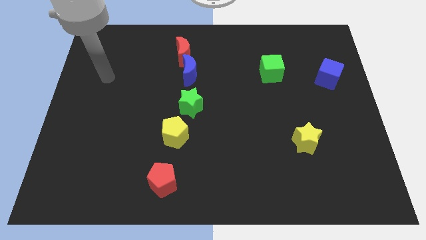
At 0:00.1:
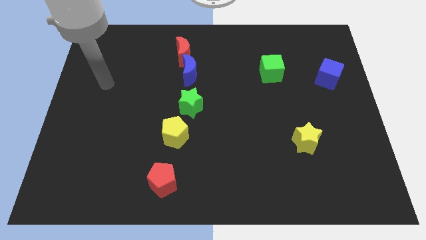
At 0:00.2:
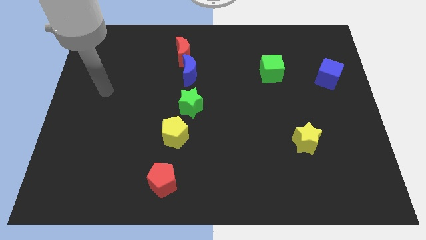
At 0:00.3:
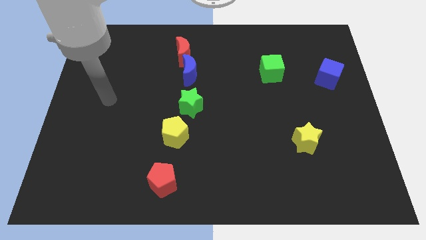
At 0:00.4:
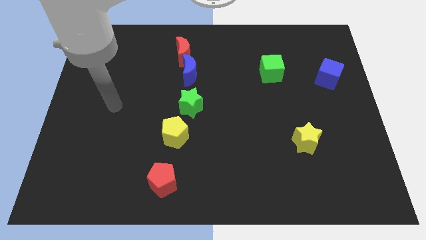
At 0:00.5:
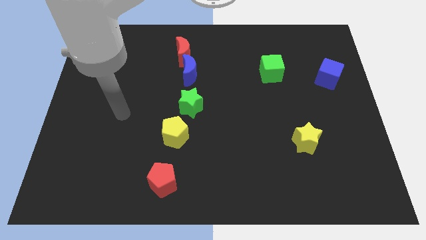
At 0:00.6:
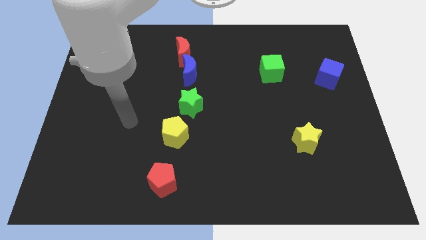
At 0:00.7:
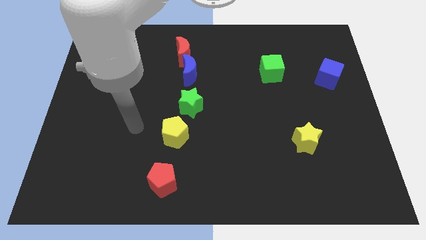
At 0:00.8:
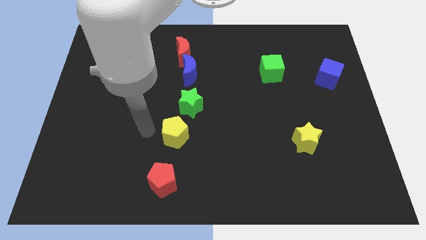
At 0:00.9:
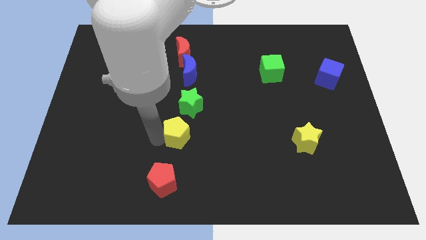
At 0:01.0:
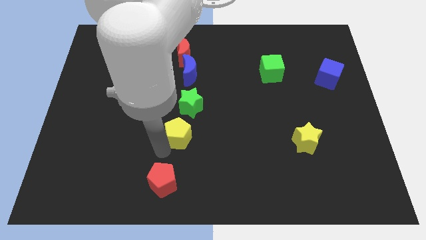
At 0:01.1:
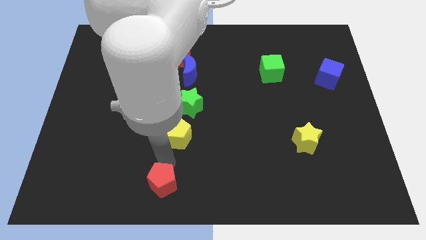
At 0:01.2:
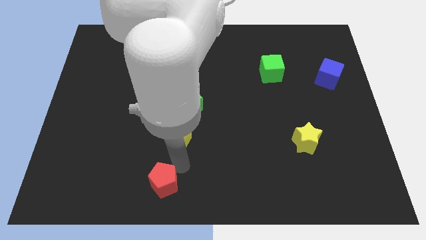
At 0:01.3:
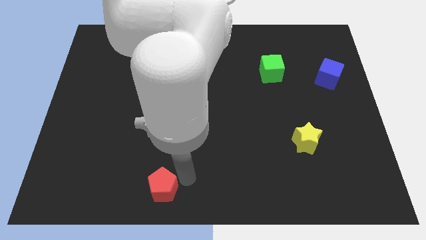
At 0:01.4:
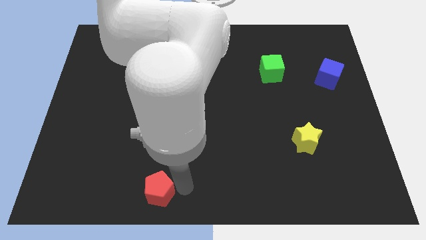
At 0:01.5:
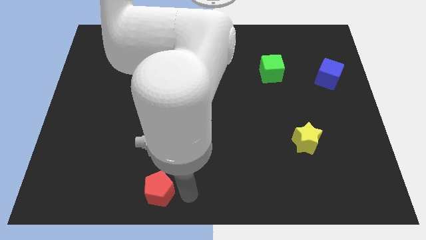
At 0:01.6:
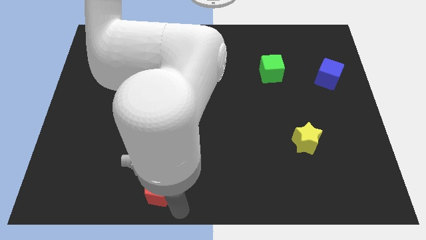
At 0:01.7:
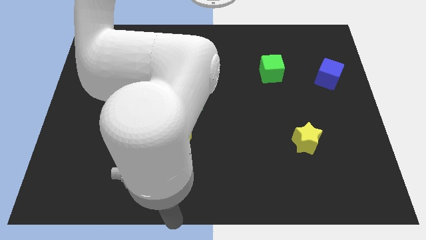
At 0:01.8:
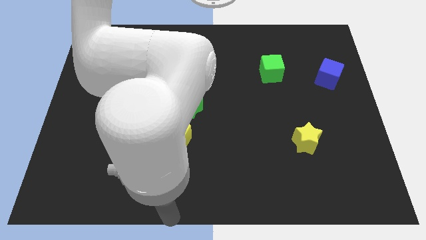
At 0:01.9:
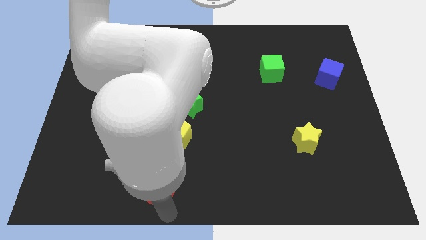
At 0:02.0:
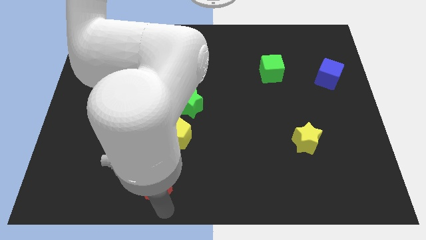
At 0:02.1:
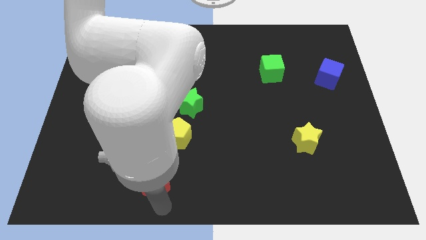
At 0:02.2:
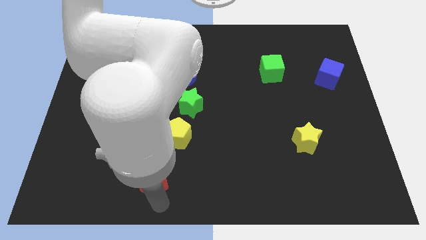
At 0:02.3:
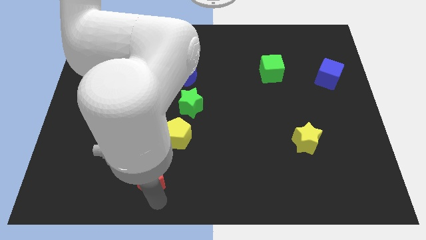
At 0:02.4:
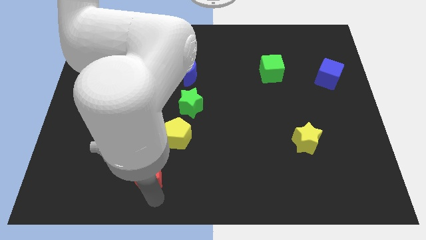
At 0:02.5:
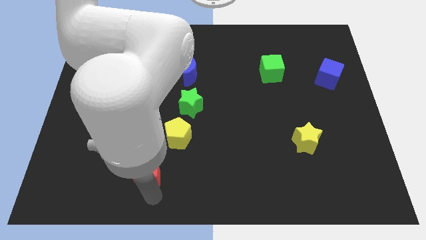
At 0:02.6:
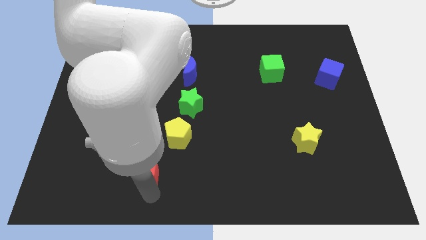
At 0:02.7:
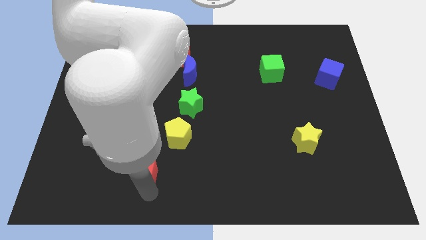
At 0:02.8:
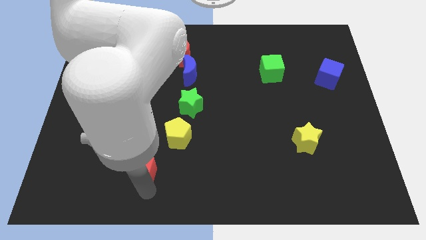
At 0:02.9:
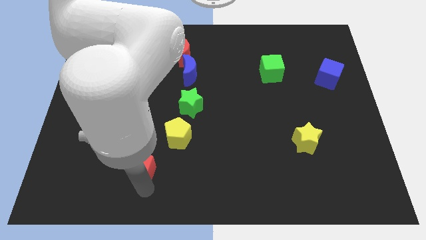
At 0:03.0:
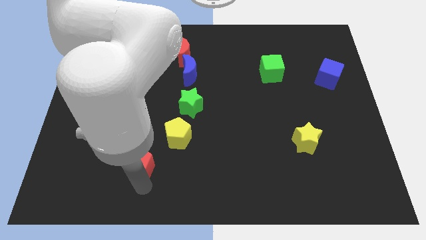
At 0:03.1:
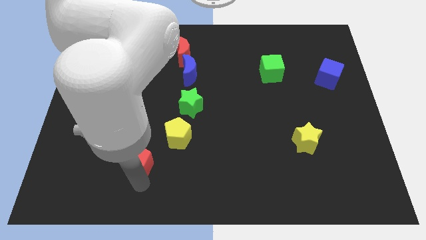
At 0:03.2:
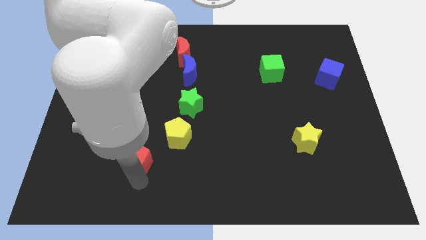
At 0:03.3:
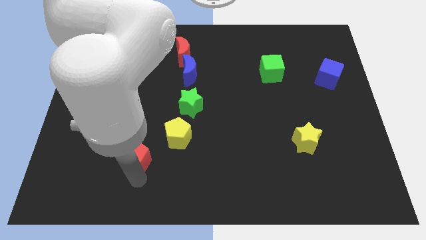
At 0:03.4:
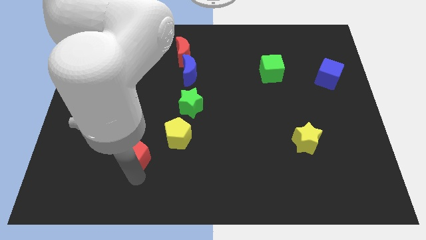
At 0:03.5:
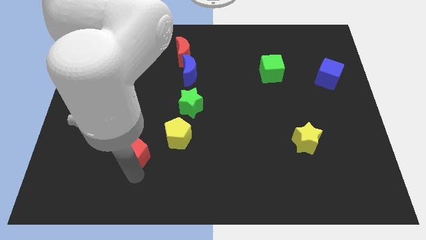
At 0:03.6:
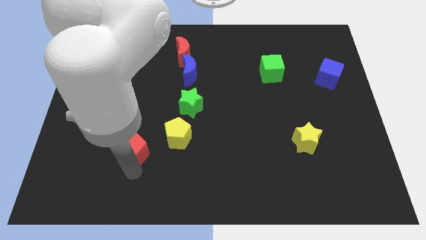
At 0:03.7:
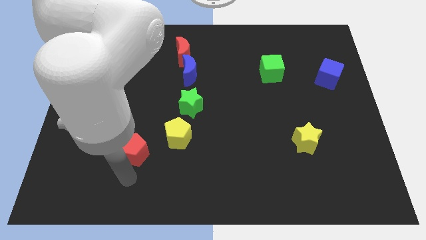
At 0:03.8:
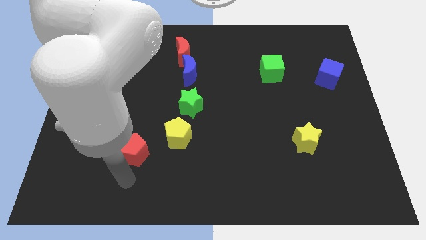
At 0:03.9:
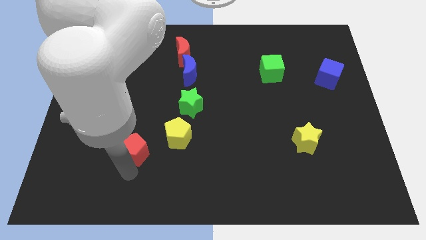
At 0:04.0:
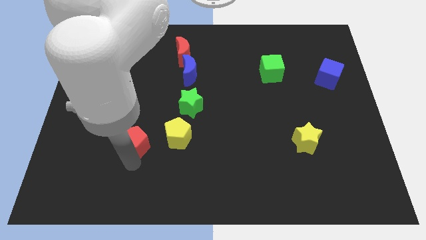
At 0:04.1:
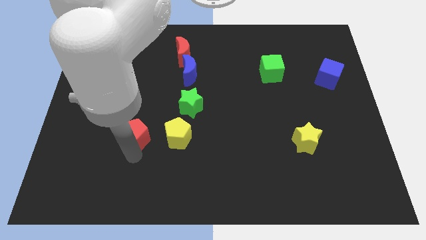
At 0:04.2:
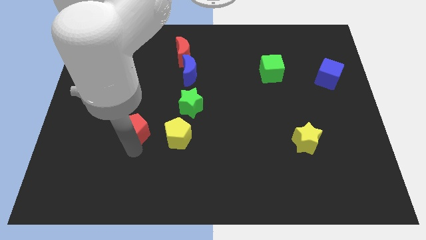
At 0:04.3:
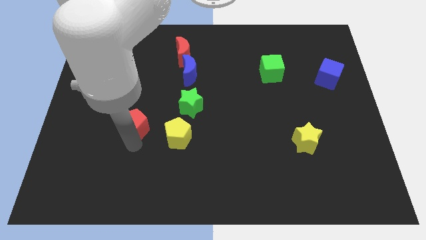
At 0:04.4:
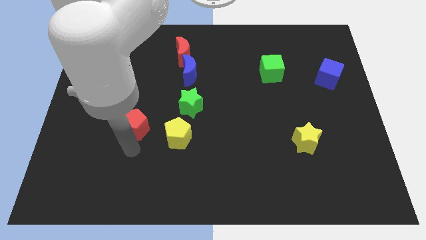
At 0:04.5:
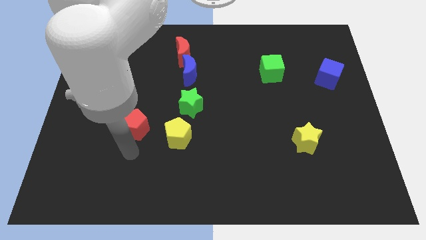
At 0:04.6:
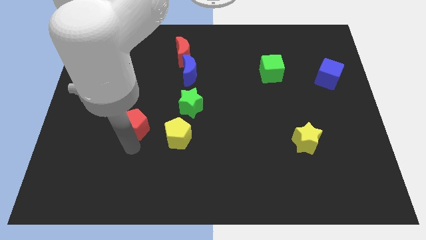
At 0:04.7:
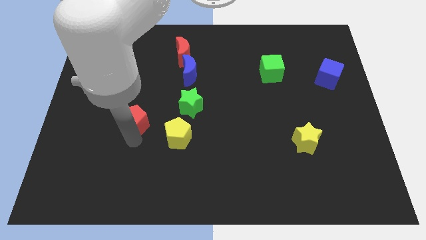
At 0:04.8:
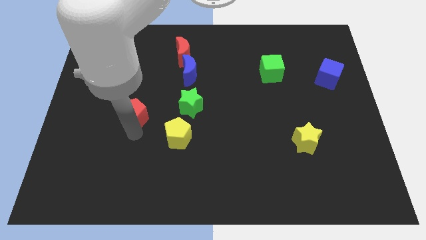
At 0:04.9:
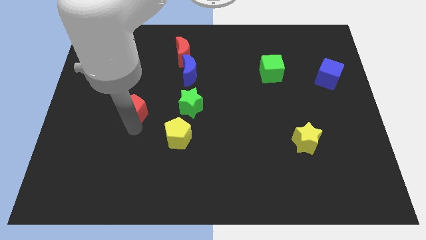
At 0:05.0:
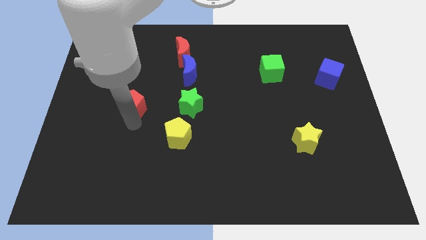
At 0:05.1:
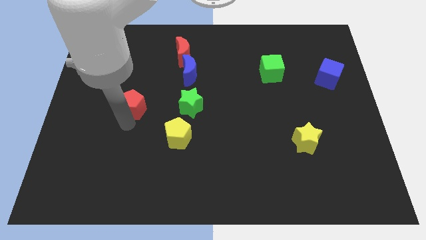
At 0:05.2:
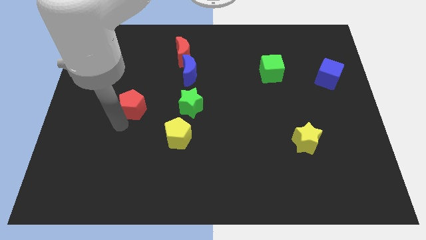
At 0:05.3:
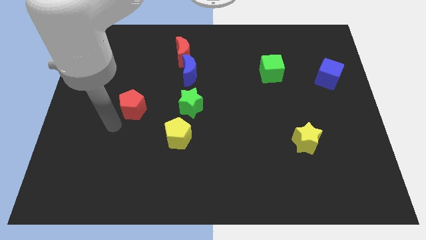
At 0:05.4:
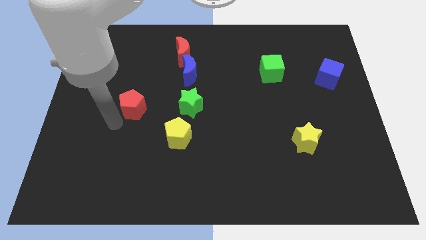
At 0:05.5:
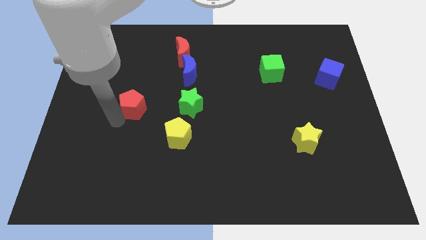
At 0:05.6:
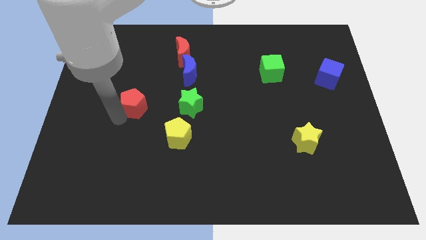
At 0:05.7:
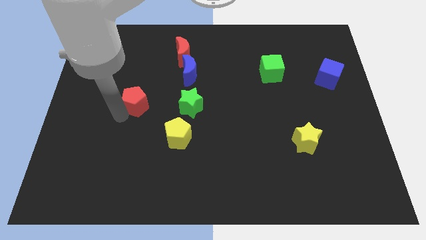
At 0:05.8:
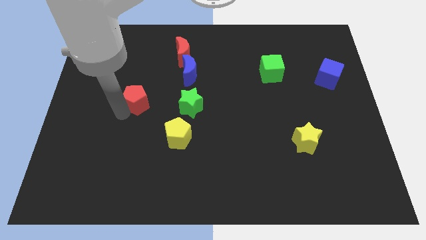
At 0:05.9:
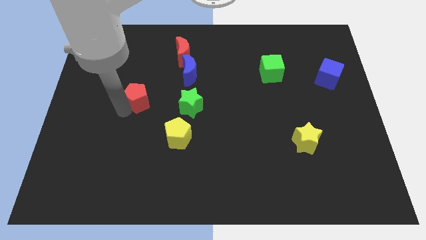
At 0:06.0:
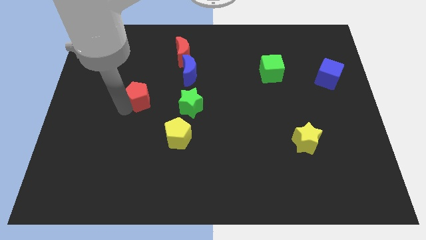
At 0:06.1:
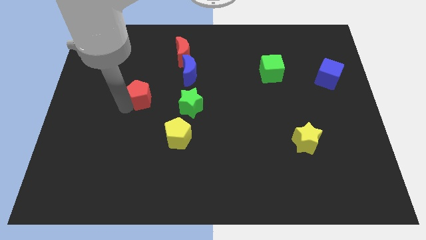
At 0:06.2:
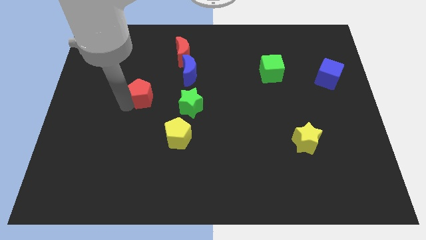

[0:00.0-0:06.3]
slide the red pentagon up

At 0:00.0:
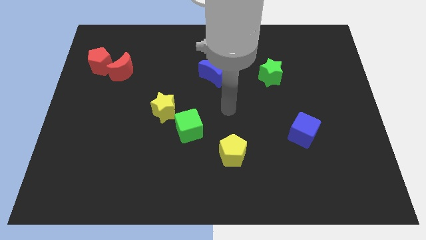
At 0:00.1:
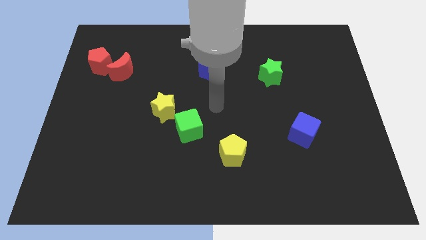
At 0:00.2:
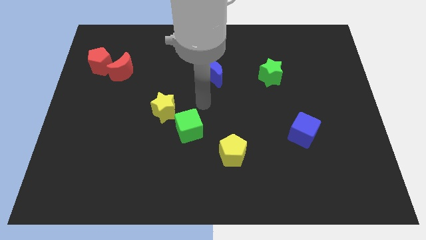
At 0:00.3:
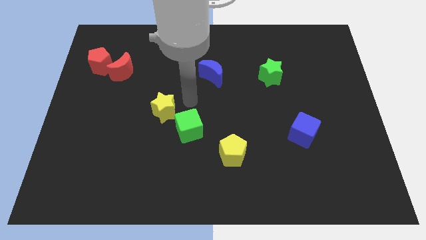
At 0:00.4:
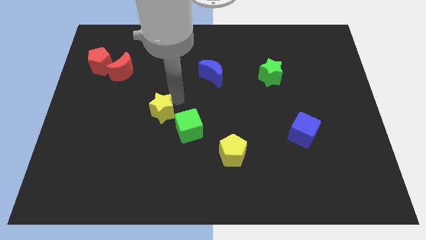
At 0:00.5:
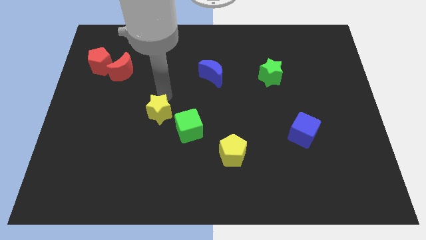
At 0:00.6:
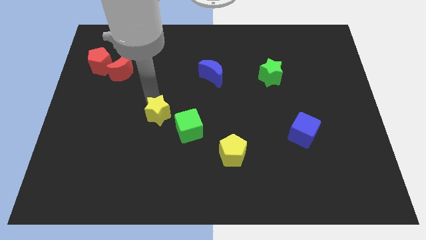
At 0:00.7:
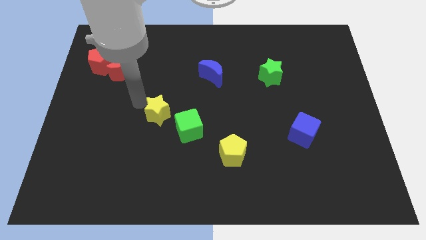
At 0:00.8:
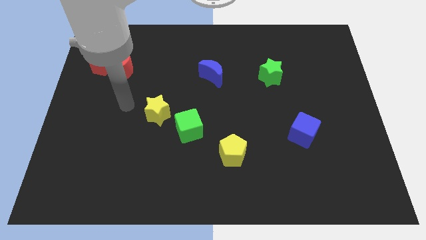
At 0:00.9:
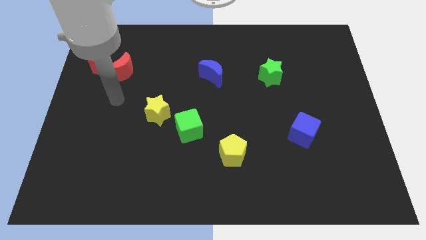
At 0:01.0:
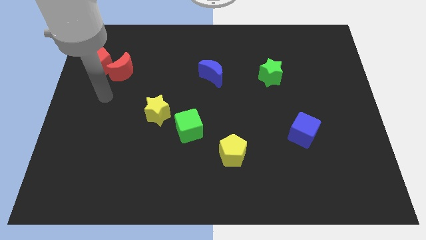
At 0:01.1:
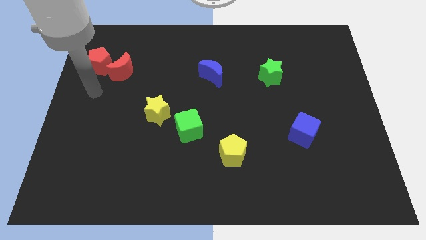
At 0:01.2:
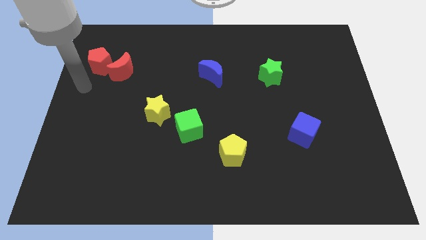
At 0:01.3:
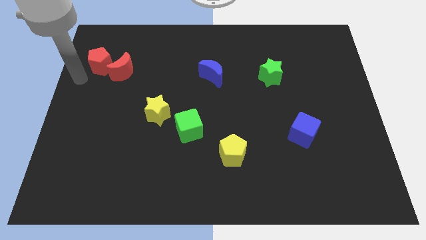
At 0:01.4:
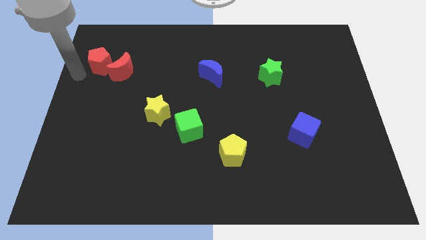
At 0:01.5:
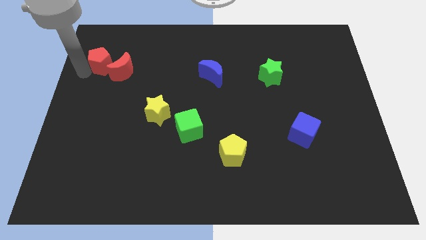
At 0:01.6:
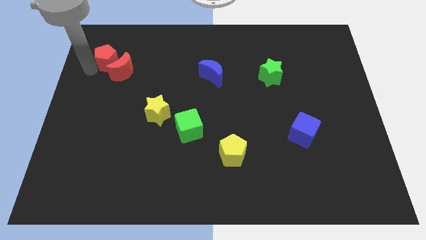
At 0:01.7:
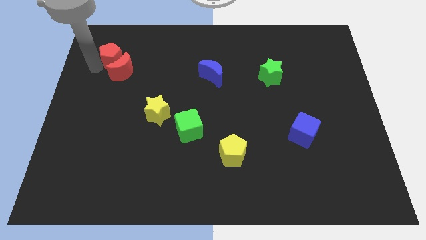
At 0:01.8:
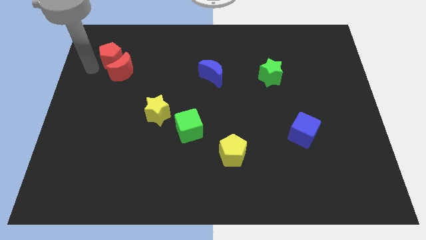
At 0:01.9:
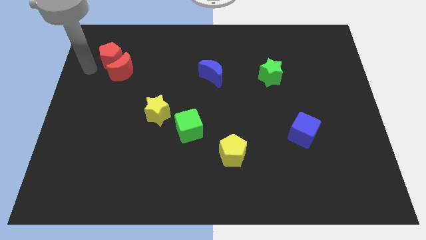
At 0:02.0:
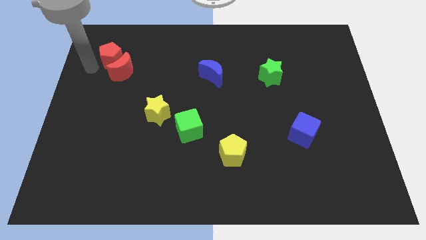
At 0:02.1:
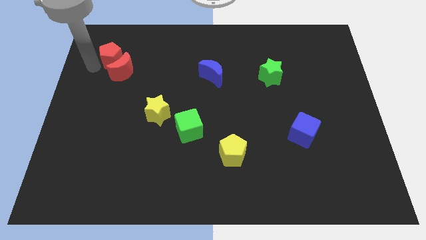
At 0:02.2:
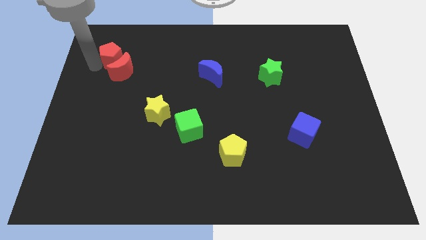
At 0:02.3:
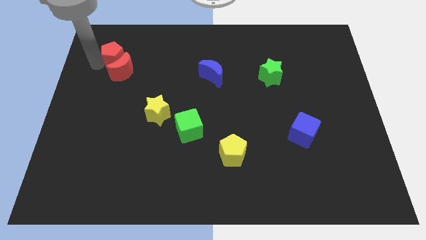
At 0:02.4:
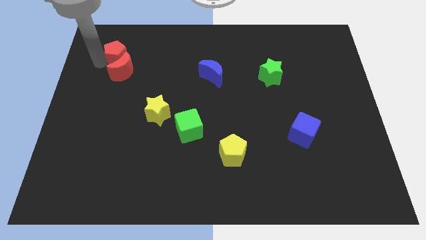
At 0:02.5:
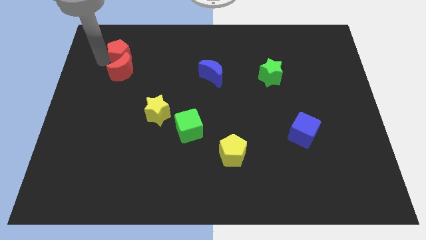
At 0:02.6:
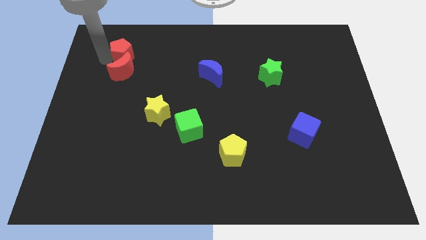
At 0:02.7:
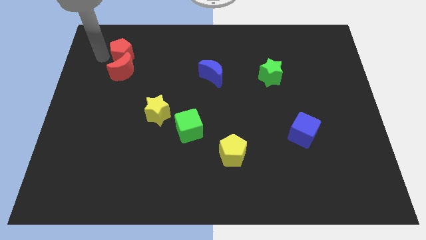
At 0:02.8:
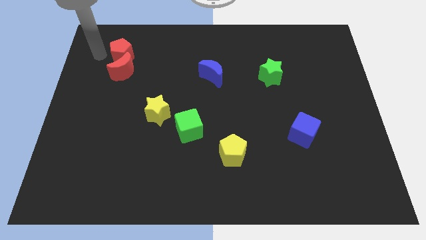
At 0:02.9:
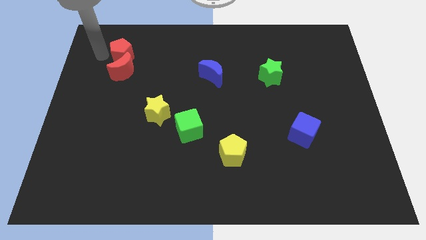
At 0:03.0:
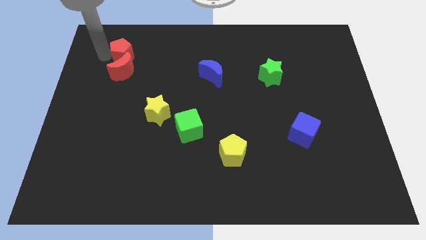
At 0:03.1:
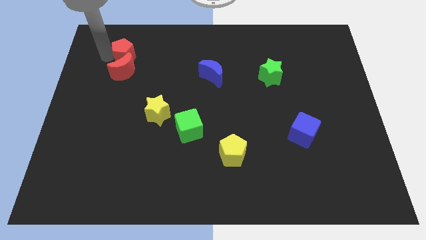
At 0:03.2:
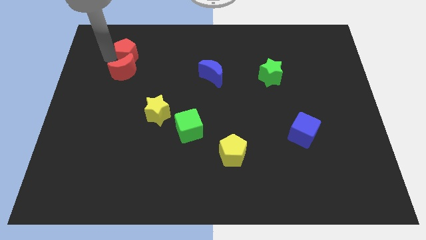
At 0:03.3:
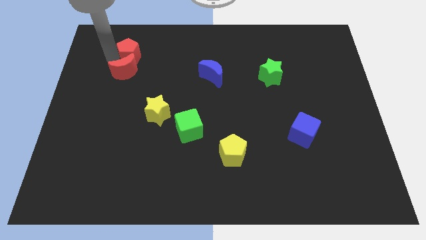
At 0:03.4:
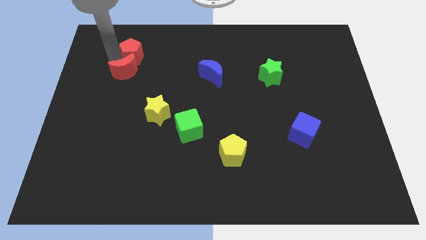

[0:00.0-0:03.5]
slide the red pentagon right a little bit
